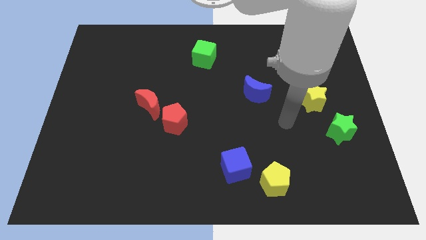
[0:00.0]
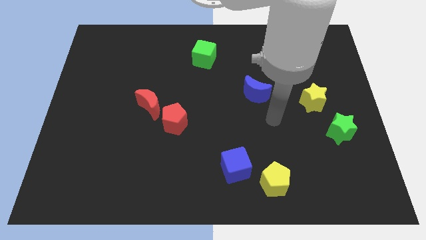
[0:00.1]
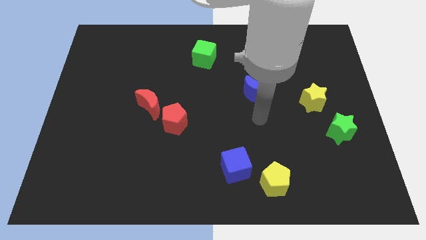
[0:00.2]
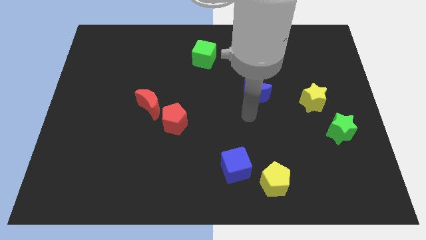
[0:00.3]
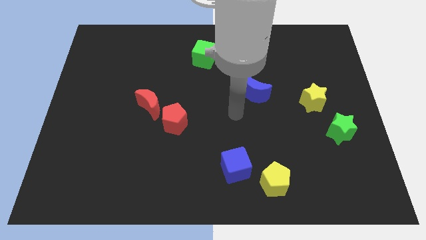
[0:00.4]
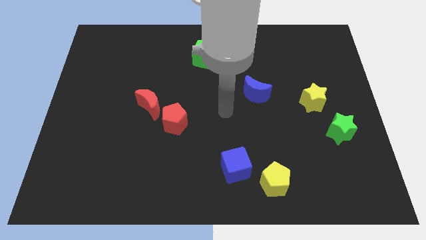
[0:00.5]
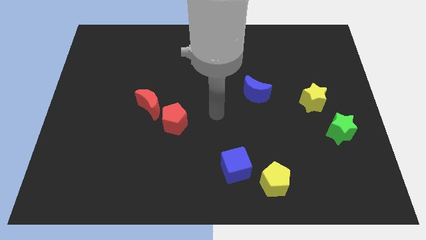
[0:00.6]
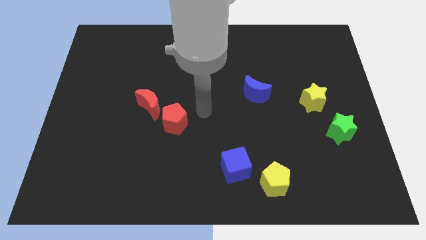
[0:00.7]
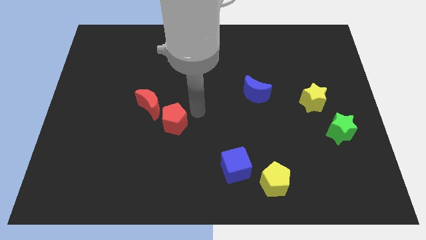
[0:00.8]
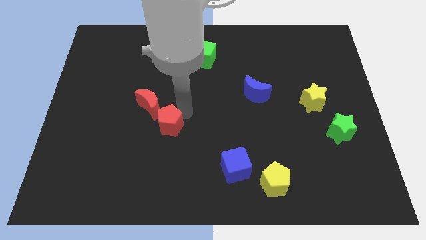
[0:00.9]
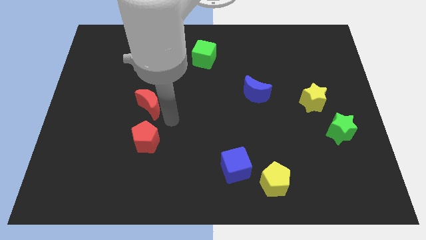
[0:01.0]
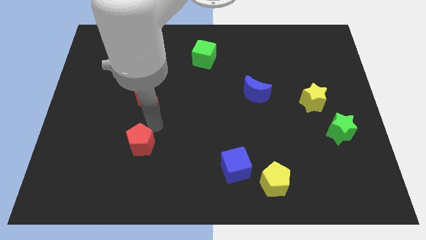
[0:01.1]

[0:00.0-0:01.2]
pull the red moon apart from the red pentagon

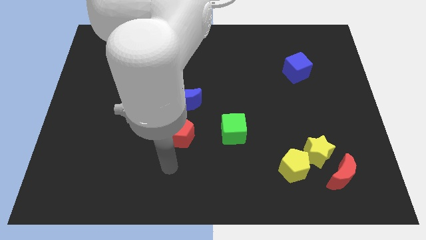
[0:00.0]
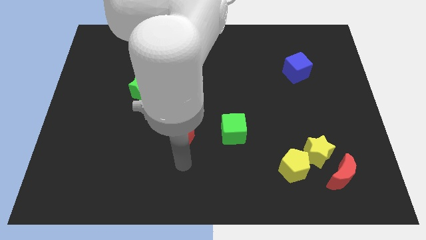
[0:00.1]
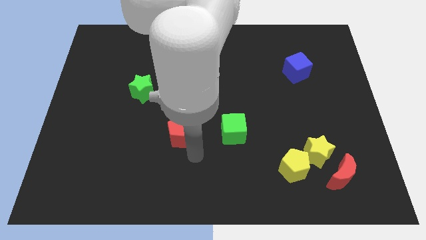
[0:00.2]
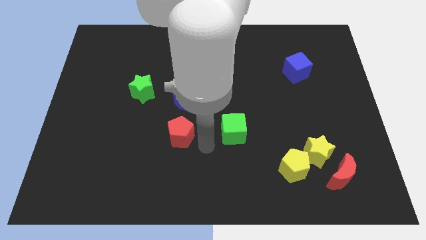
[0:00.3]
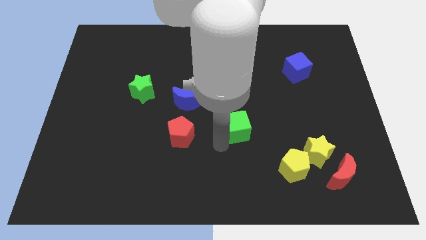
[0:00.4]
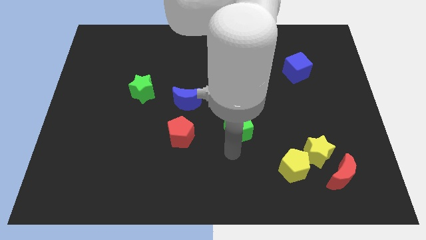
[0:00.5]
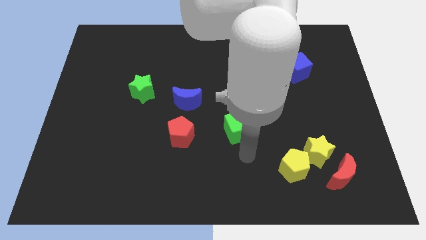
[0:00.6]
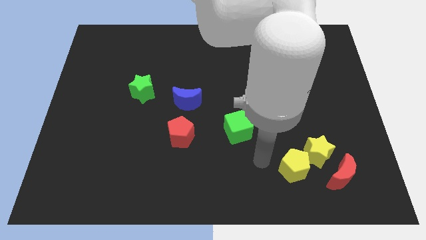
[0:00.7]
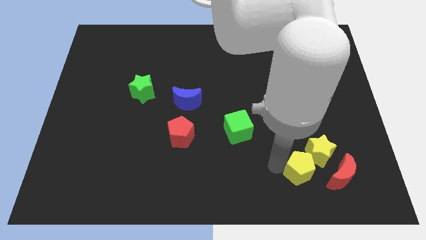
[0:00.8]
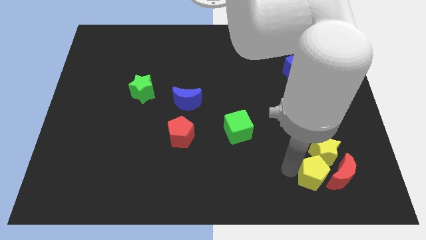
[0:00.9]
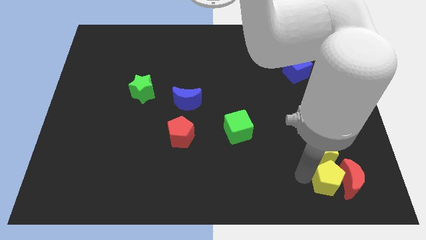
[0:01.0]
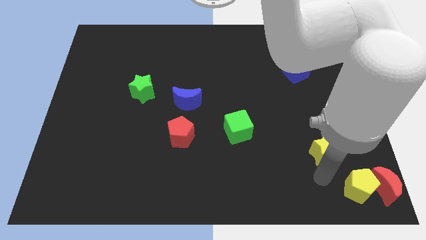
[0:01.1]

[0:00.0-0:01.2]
pull the yellow star apart from the yellow pentagon and red moon

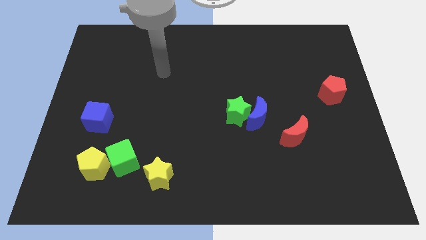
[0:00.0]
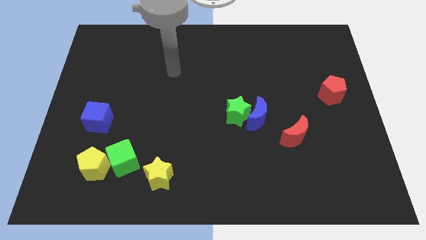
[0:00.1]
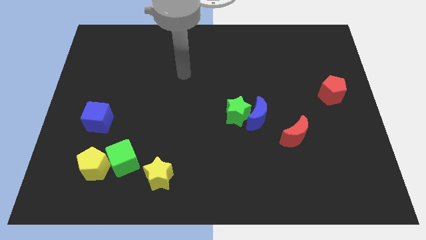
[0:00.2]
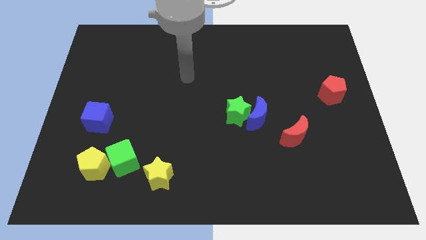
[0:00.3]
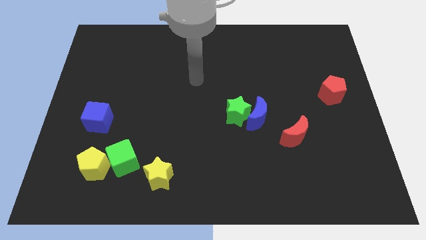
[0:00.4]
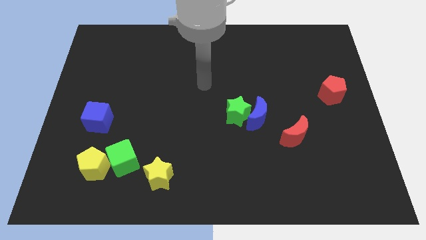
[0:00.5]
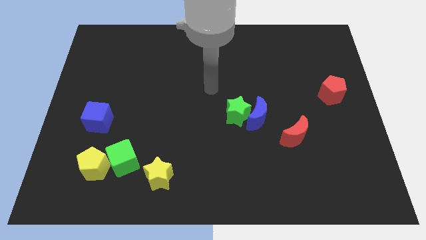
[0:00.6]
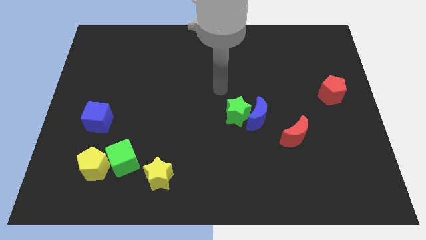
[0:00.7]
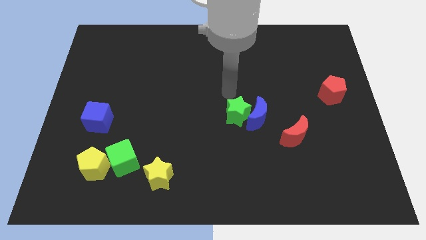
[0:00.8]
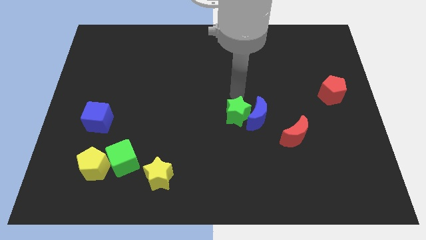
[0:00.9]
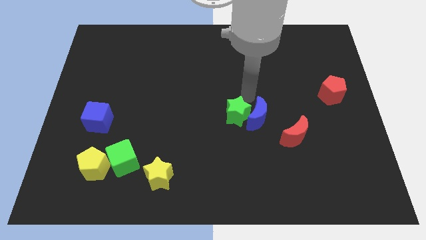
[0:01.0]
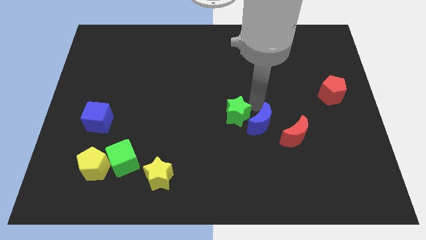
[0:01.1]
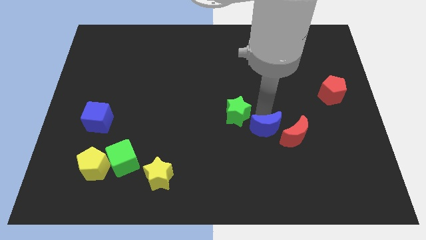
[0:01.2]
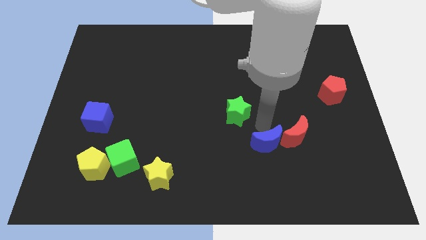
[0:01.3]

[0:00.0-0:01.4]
move the green star away from the blue moon

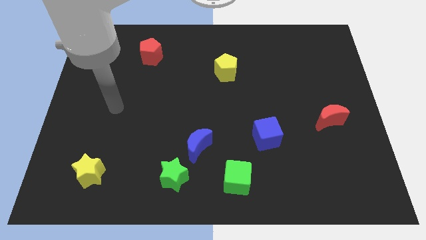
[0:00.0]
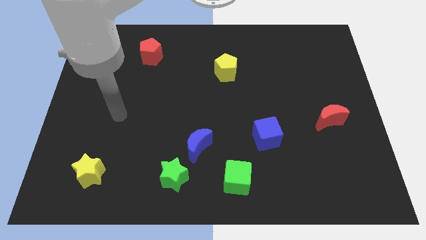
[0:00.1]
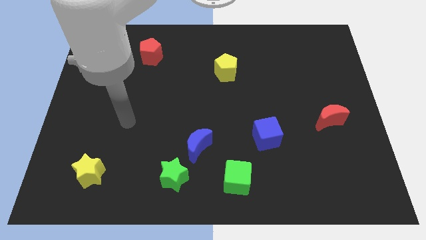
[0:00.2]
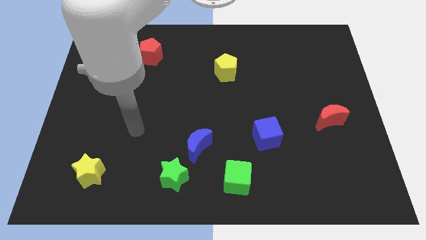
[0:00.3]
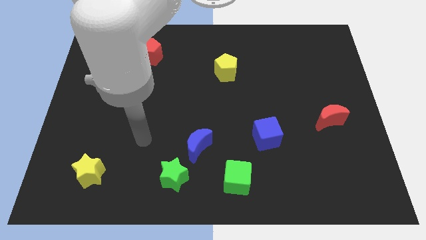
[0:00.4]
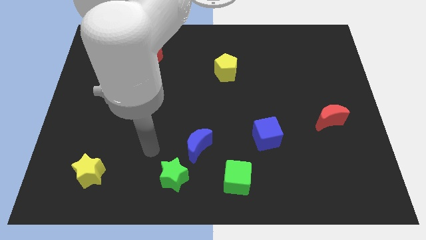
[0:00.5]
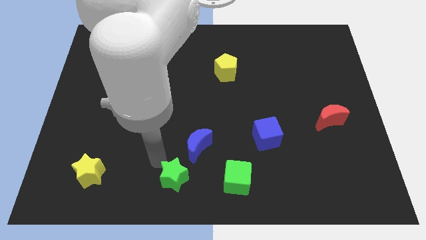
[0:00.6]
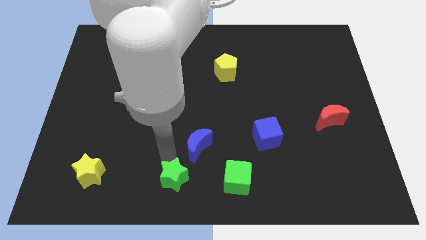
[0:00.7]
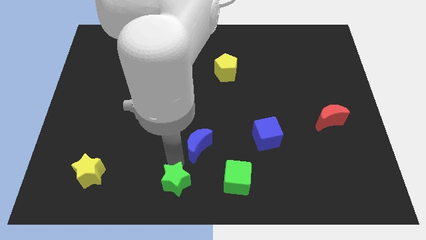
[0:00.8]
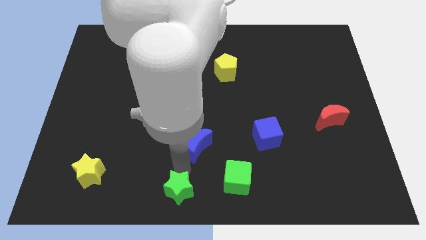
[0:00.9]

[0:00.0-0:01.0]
separate the blue moon from the green star

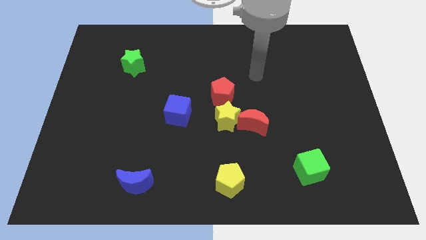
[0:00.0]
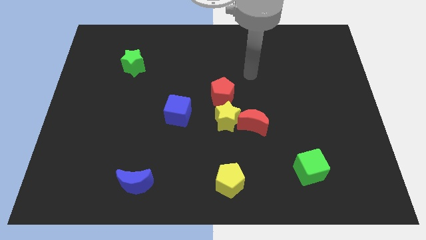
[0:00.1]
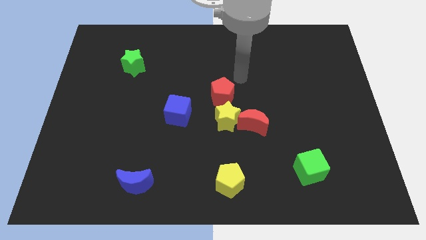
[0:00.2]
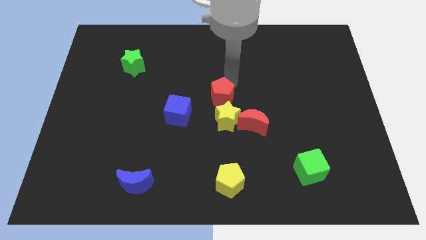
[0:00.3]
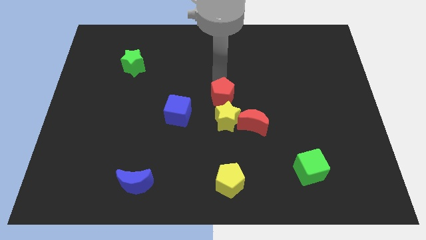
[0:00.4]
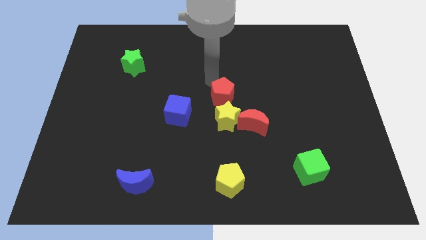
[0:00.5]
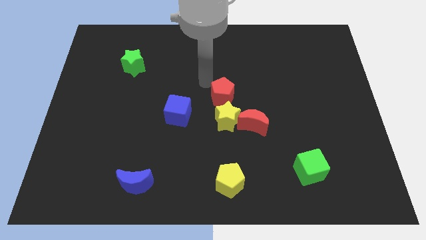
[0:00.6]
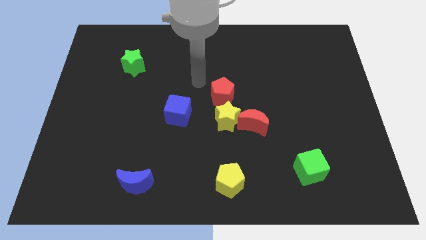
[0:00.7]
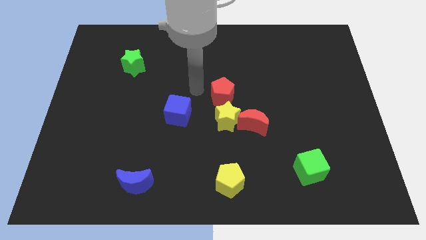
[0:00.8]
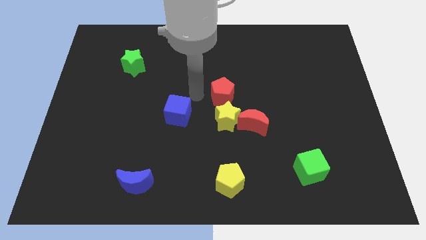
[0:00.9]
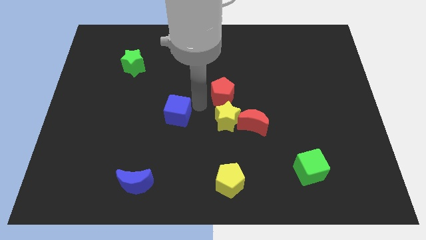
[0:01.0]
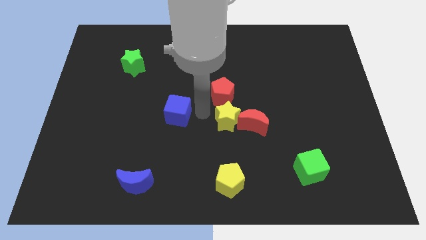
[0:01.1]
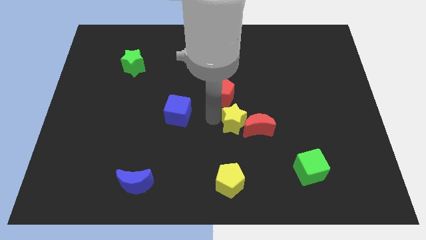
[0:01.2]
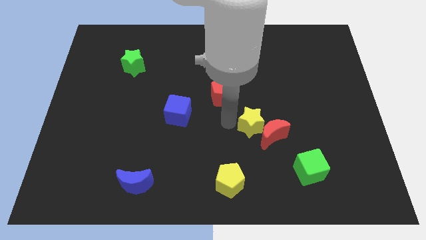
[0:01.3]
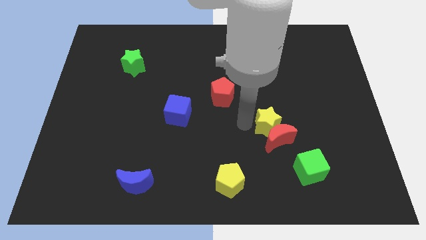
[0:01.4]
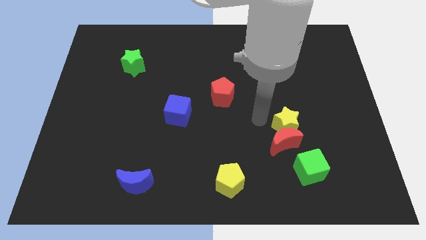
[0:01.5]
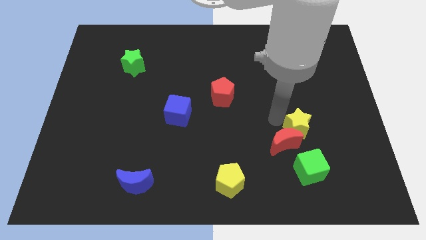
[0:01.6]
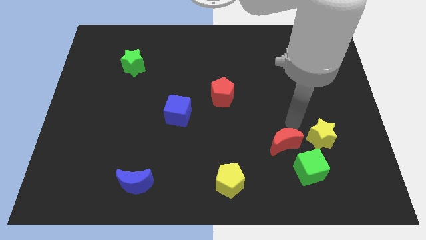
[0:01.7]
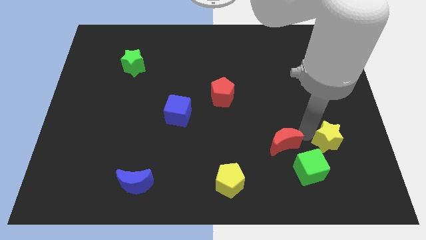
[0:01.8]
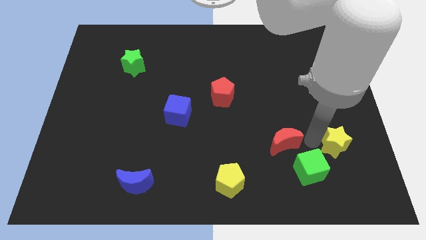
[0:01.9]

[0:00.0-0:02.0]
separate the red moon from the yellow star

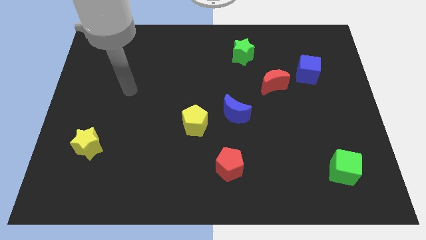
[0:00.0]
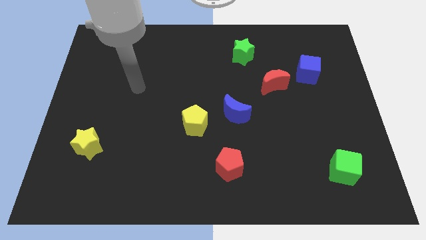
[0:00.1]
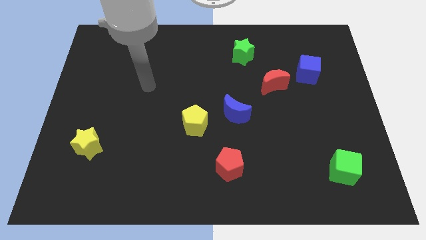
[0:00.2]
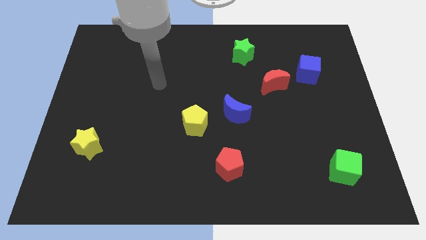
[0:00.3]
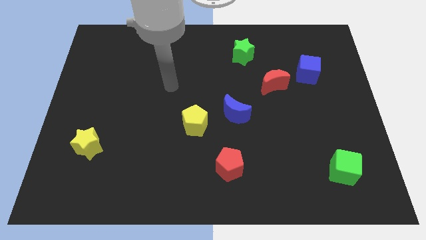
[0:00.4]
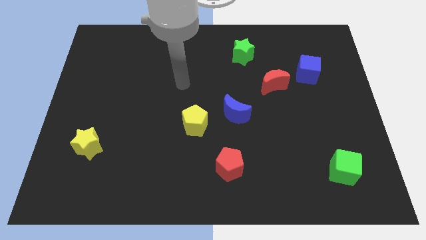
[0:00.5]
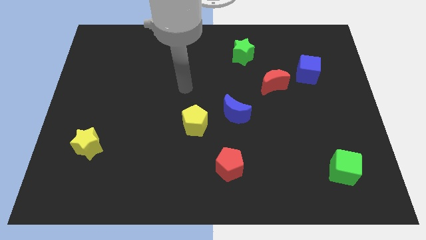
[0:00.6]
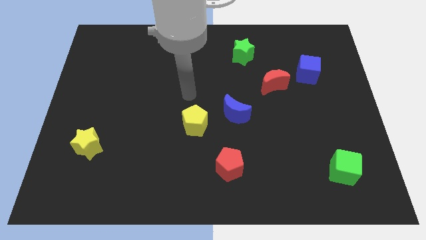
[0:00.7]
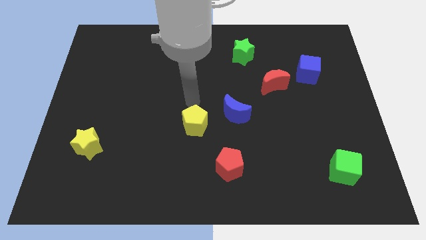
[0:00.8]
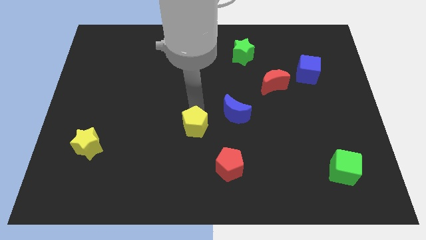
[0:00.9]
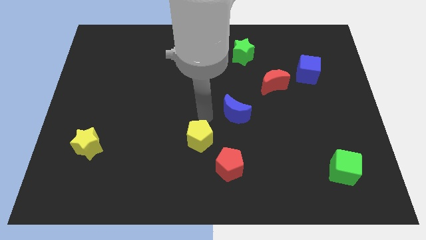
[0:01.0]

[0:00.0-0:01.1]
move the blue moon away from the yellow pentagon

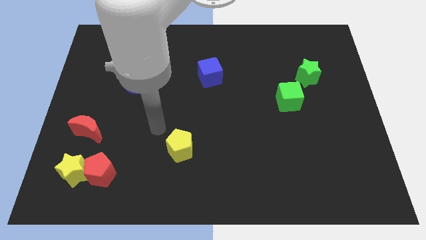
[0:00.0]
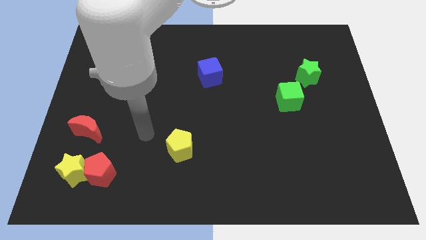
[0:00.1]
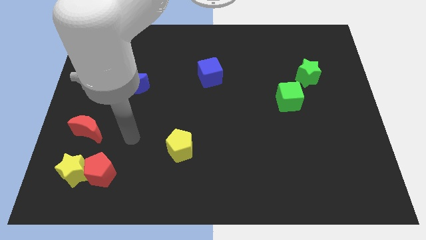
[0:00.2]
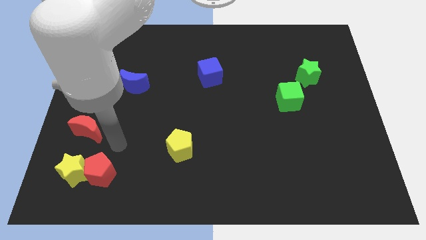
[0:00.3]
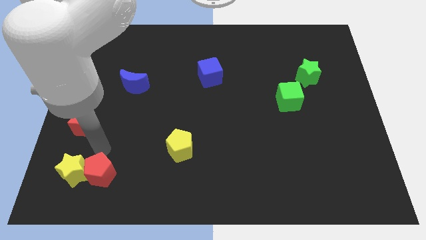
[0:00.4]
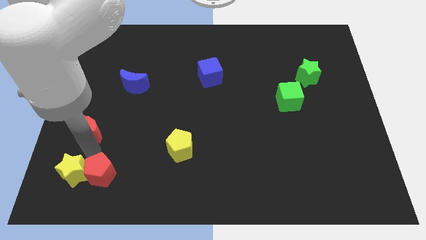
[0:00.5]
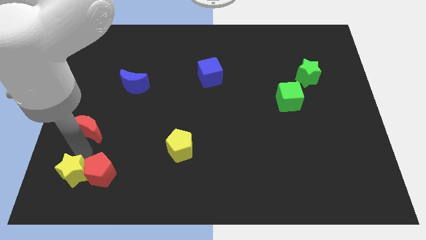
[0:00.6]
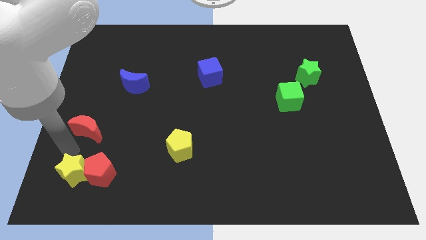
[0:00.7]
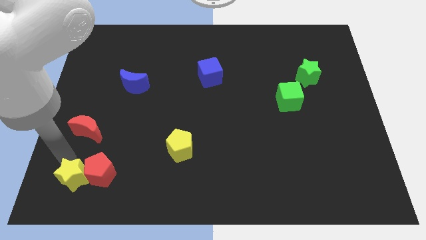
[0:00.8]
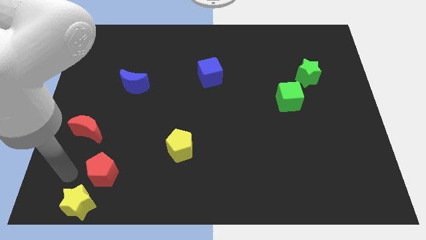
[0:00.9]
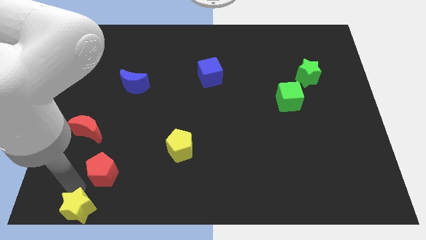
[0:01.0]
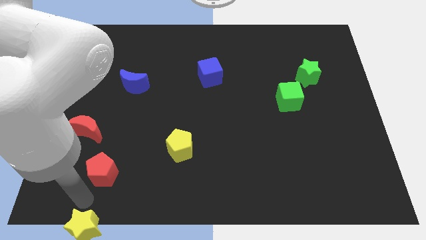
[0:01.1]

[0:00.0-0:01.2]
pull the red pentagon apart from the yellow star

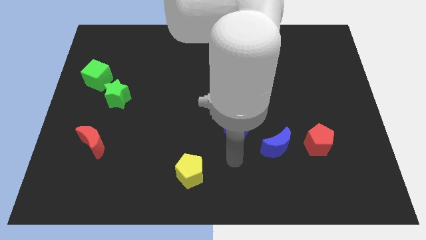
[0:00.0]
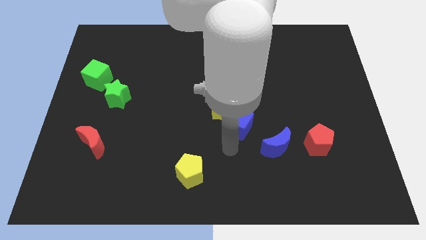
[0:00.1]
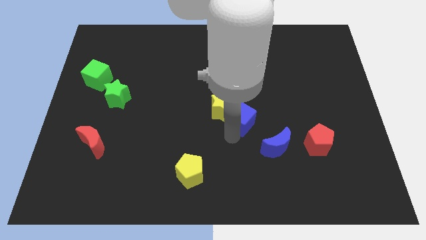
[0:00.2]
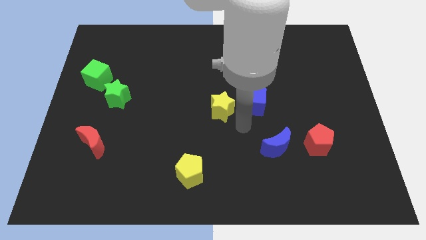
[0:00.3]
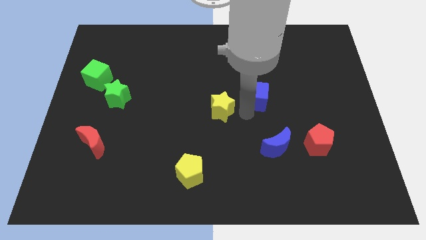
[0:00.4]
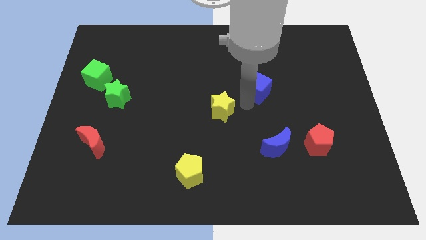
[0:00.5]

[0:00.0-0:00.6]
pull the yellow star apart from the blue cube
